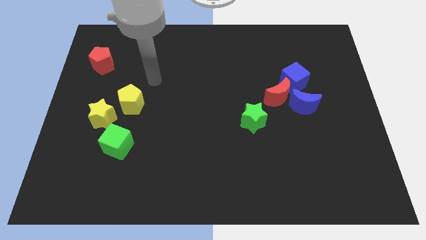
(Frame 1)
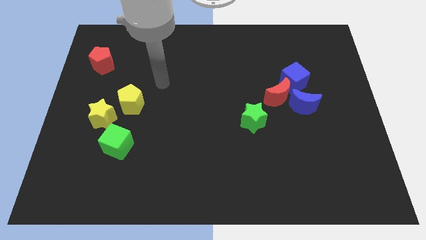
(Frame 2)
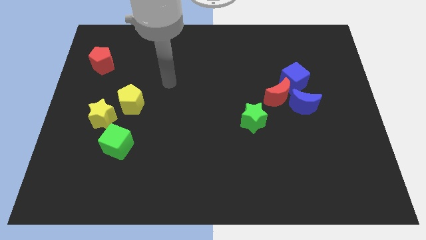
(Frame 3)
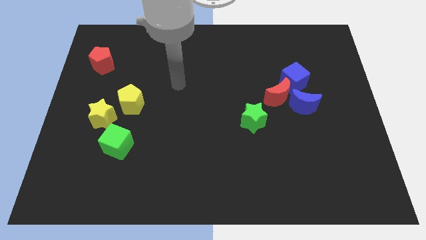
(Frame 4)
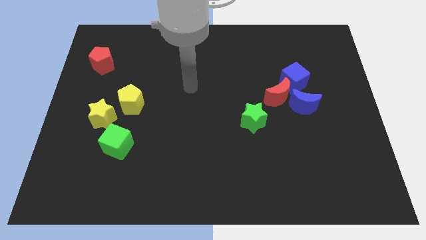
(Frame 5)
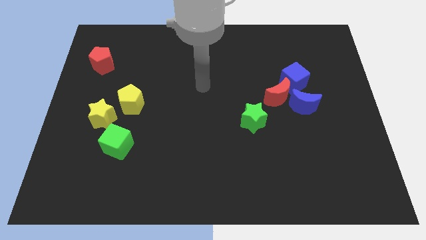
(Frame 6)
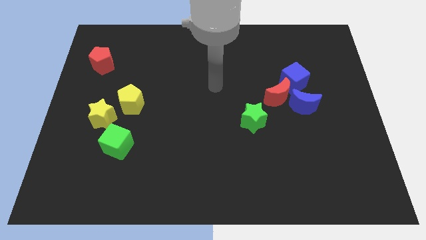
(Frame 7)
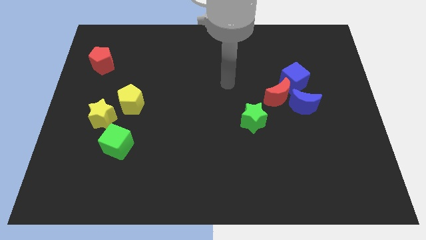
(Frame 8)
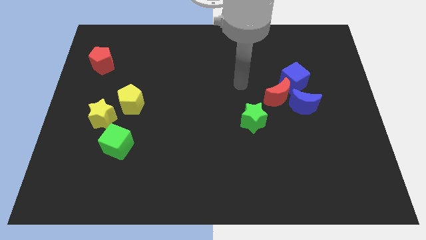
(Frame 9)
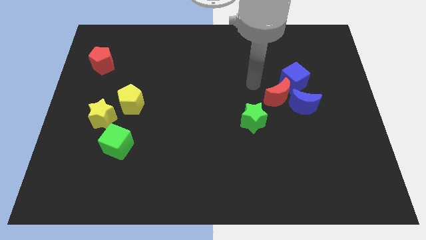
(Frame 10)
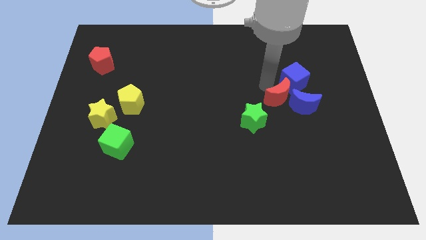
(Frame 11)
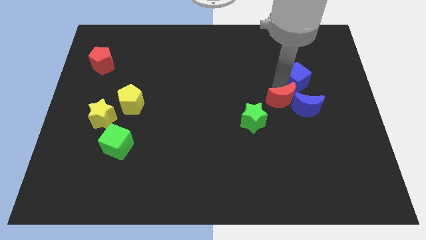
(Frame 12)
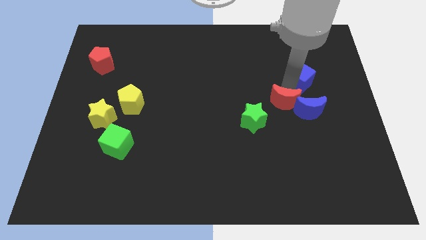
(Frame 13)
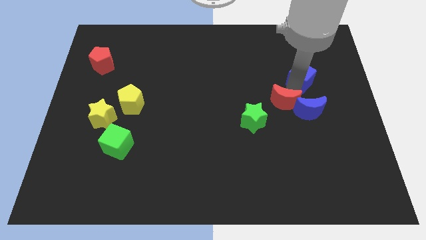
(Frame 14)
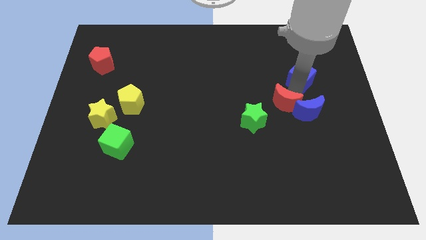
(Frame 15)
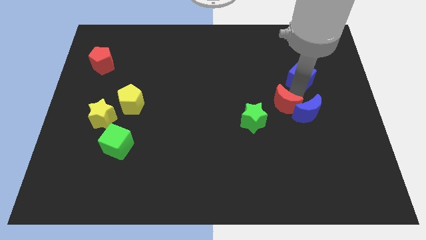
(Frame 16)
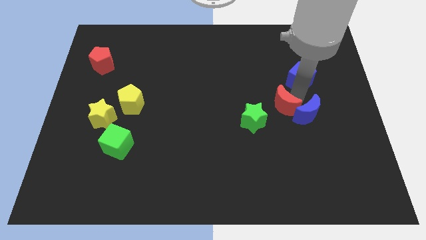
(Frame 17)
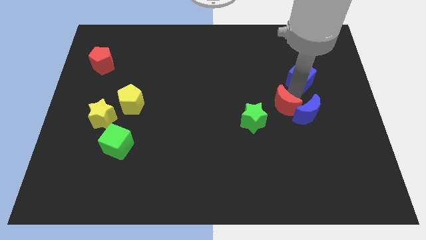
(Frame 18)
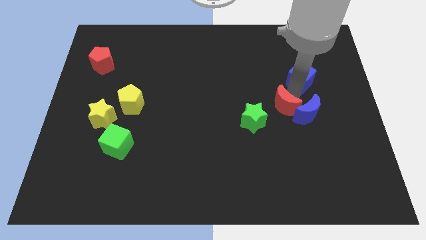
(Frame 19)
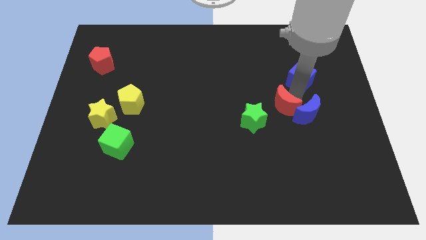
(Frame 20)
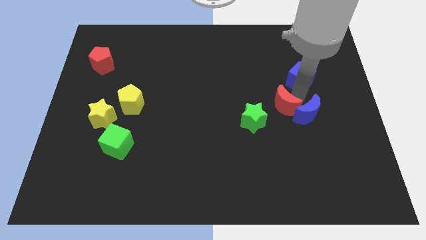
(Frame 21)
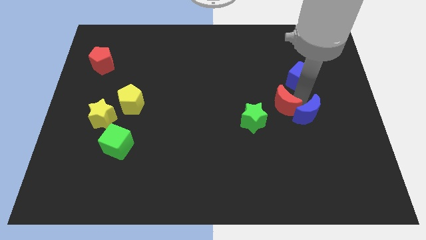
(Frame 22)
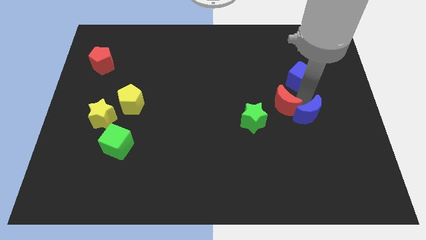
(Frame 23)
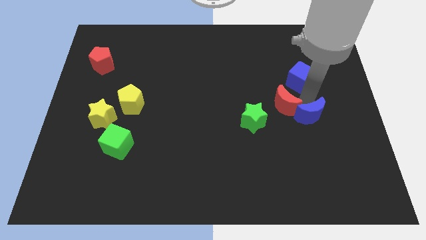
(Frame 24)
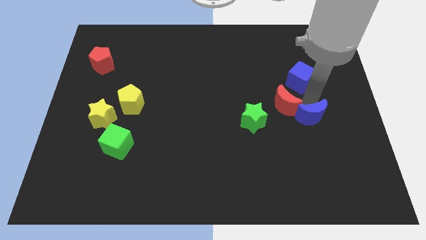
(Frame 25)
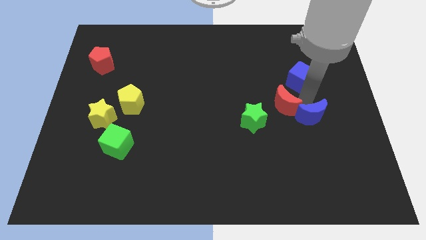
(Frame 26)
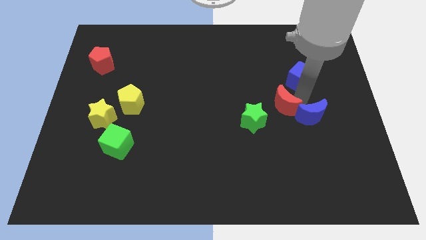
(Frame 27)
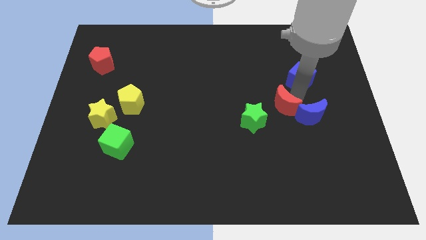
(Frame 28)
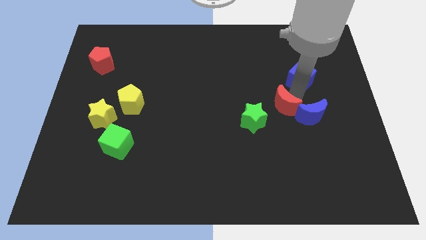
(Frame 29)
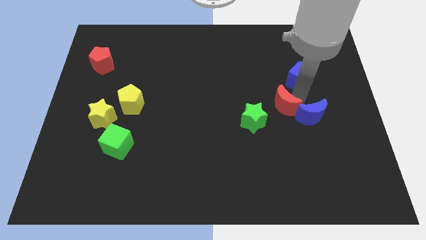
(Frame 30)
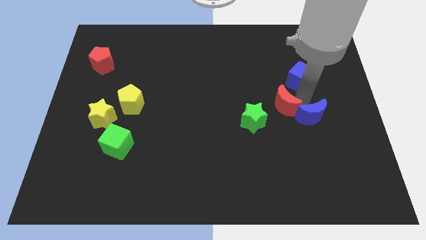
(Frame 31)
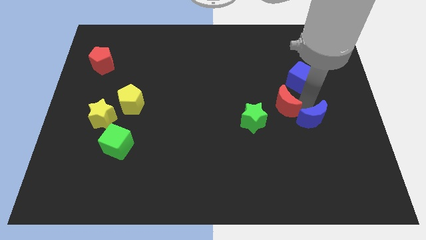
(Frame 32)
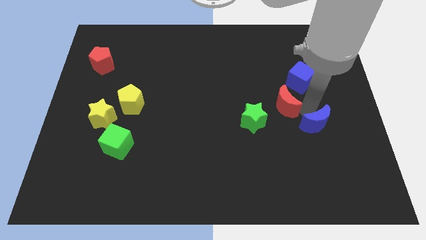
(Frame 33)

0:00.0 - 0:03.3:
pull the blue moon apart from the red moon and blue cube

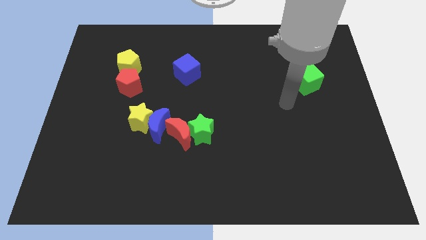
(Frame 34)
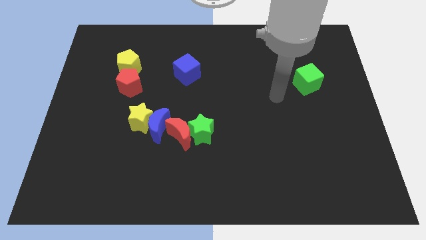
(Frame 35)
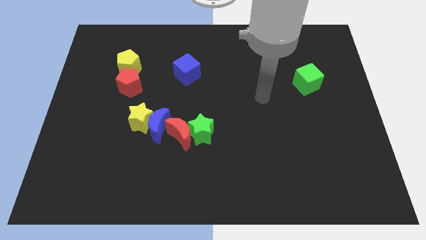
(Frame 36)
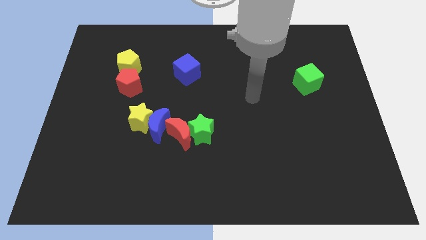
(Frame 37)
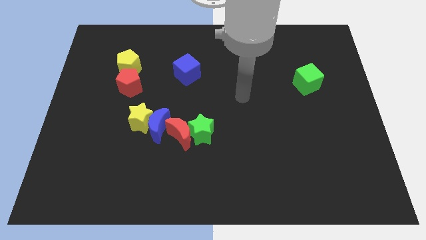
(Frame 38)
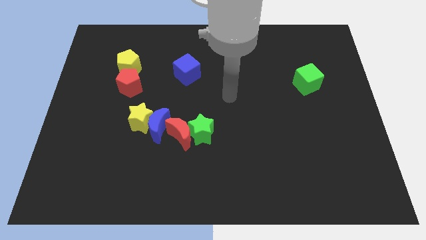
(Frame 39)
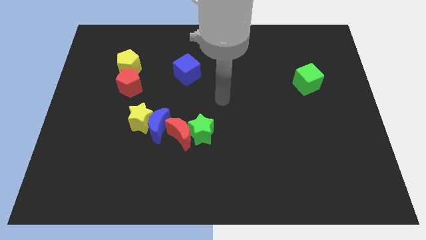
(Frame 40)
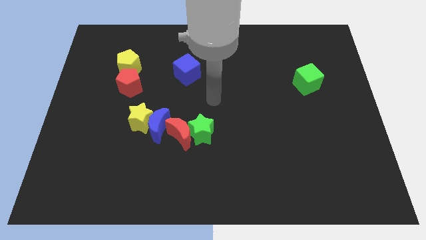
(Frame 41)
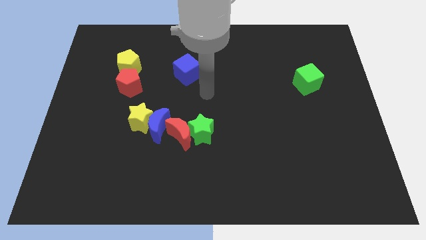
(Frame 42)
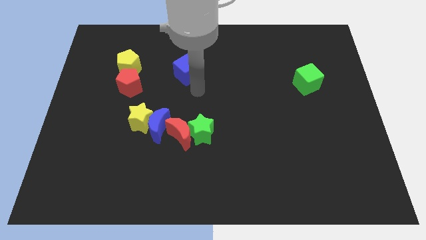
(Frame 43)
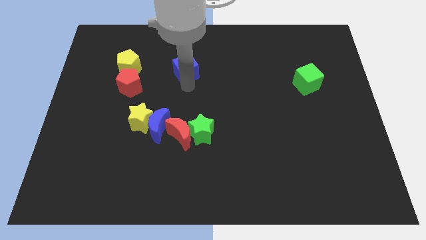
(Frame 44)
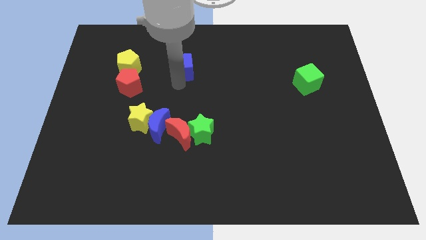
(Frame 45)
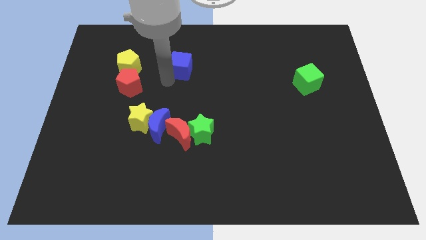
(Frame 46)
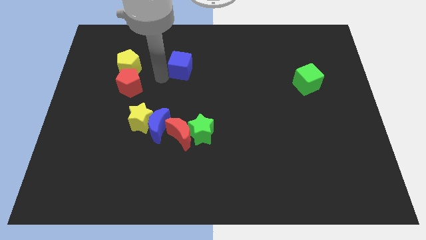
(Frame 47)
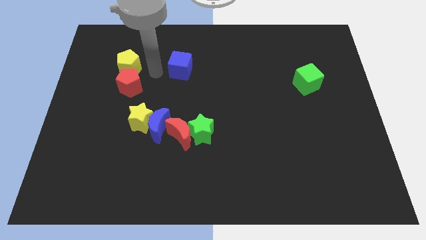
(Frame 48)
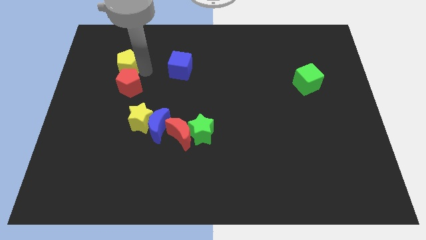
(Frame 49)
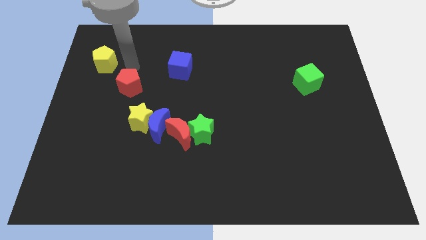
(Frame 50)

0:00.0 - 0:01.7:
pull the red pentagon apart from the yellow pentagon

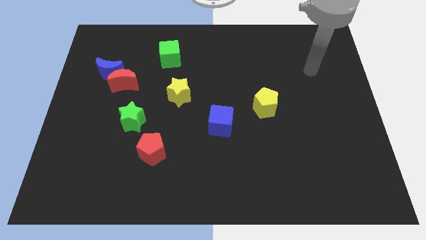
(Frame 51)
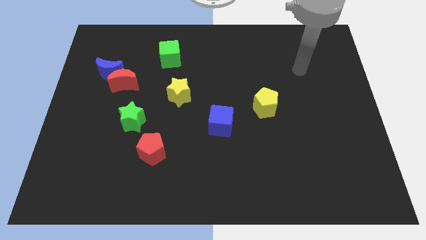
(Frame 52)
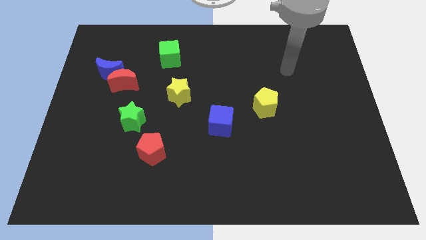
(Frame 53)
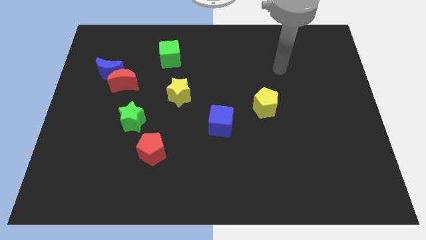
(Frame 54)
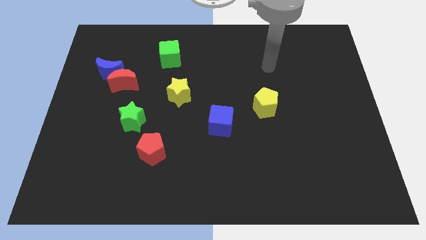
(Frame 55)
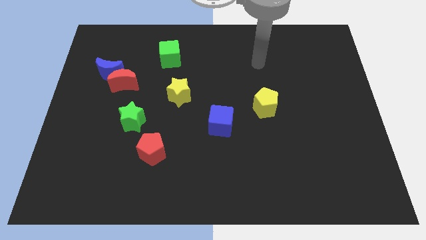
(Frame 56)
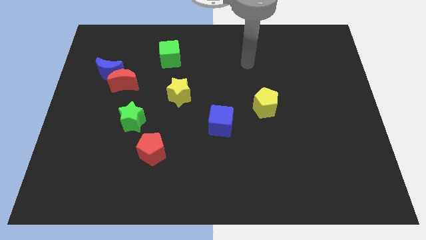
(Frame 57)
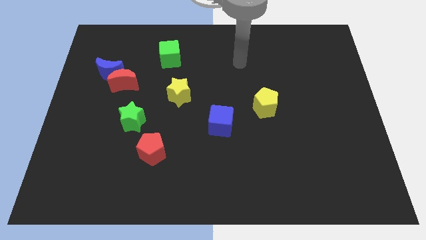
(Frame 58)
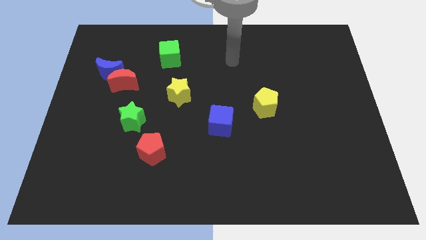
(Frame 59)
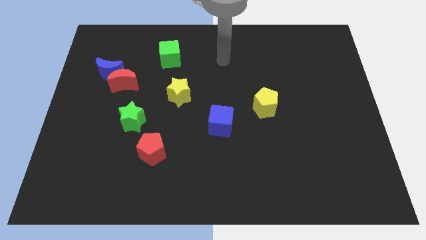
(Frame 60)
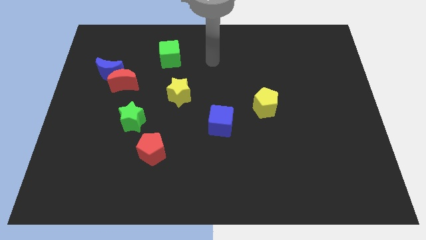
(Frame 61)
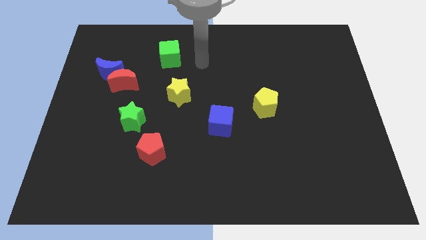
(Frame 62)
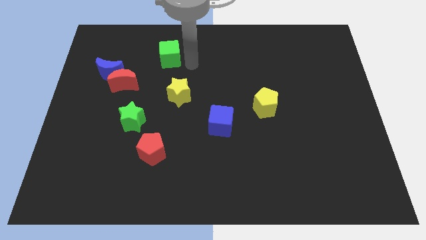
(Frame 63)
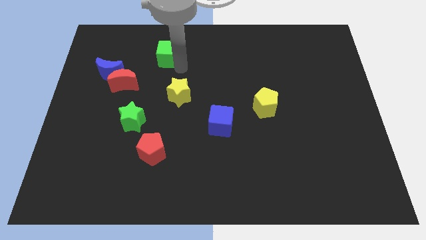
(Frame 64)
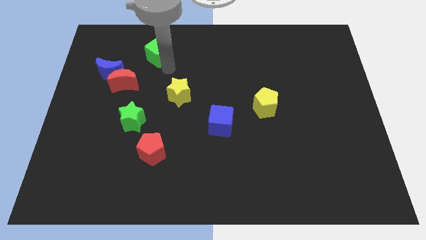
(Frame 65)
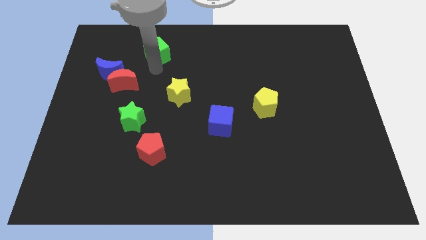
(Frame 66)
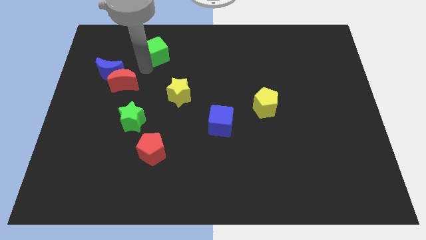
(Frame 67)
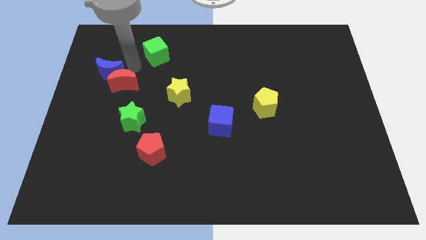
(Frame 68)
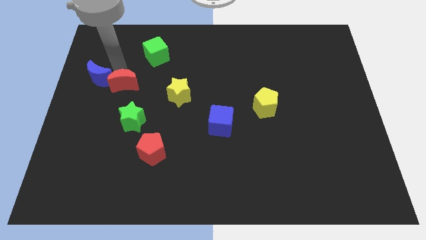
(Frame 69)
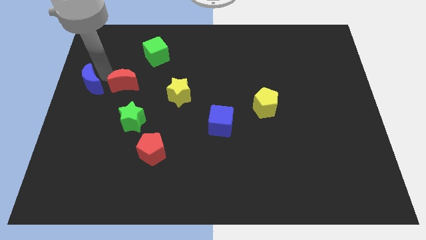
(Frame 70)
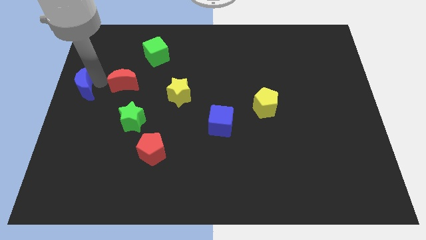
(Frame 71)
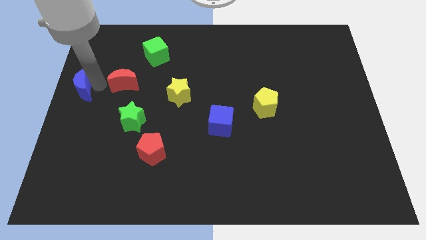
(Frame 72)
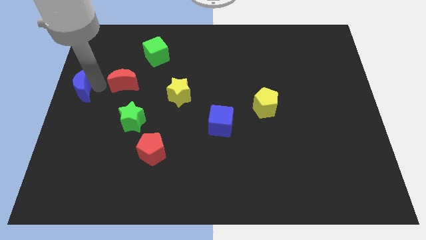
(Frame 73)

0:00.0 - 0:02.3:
pull the red moon apart from the blue moon

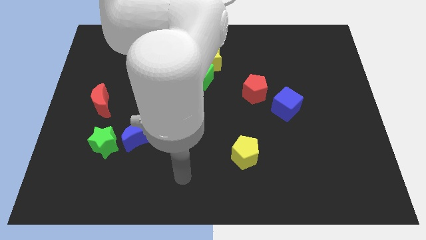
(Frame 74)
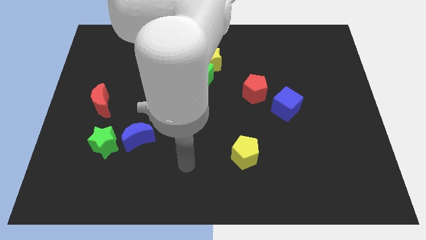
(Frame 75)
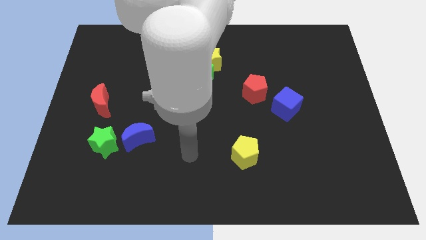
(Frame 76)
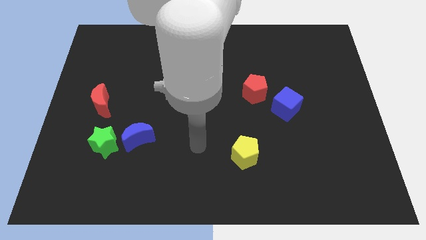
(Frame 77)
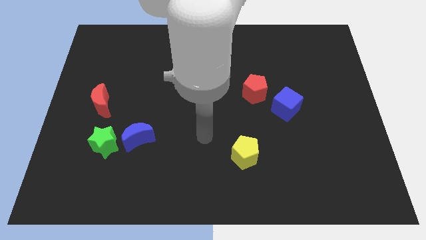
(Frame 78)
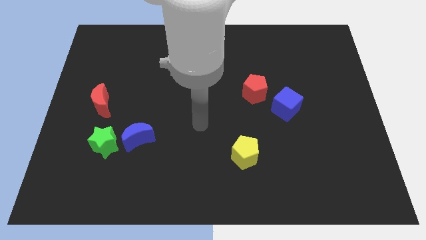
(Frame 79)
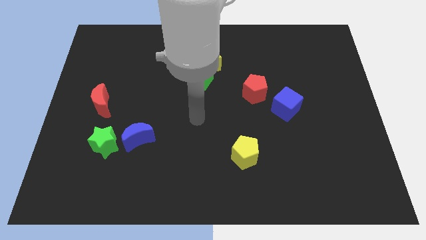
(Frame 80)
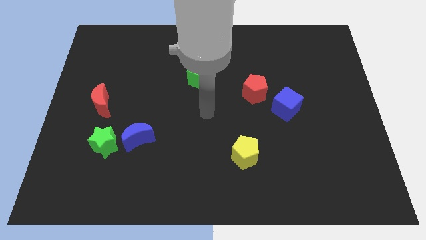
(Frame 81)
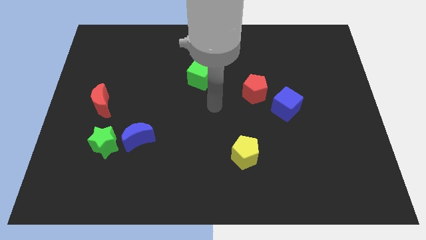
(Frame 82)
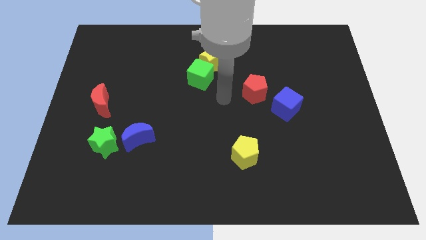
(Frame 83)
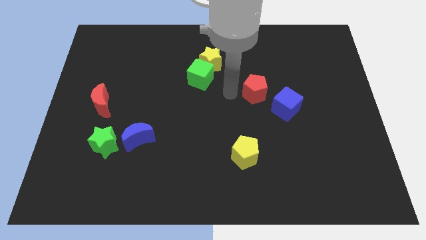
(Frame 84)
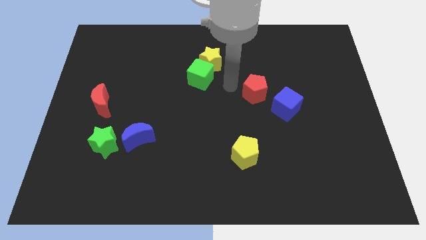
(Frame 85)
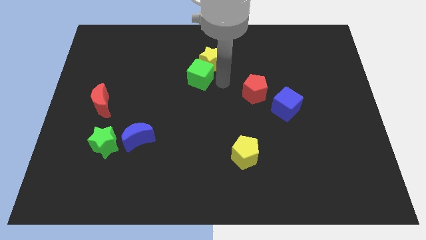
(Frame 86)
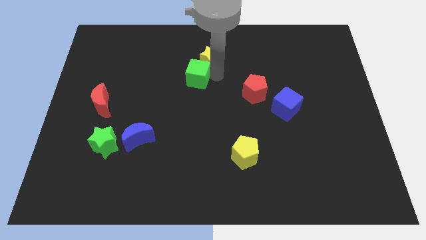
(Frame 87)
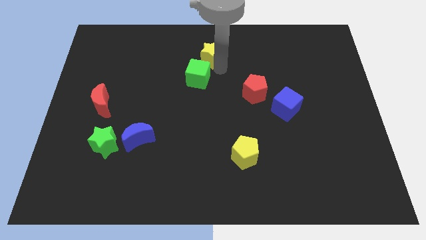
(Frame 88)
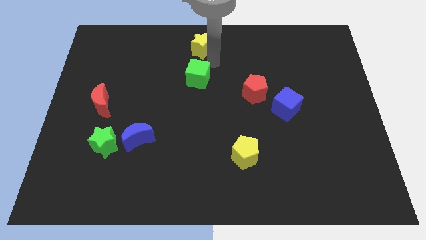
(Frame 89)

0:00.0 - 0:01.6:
separate the green cube from the yellow star

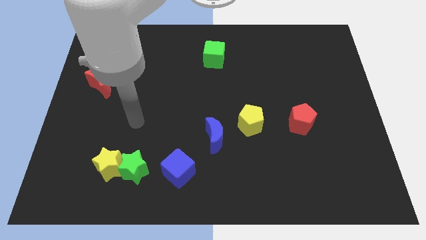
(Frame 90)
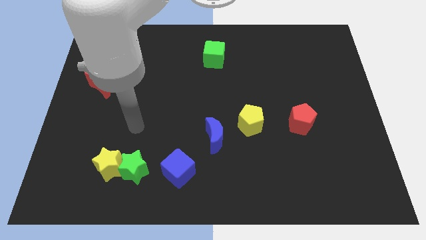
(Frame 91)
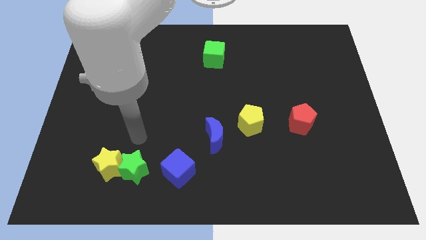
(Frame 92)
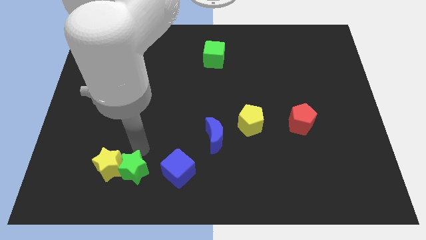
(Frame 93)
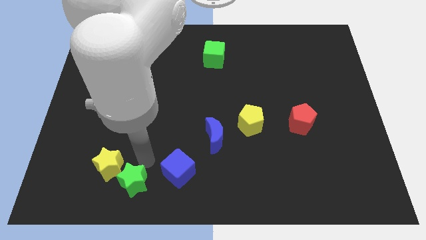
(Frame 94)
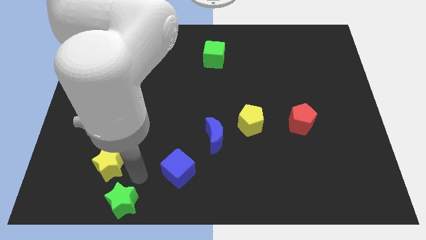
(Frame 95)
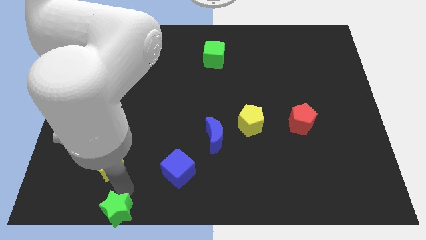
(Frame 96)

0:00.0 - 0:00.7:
separate the yellow star from the green star
